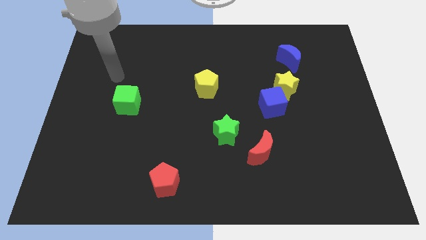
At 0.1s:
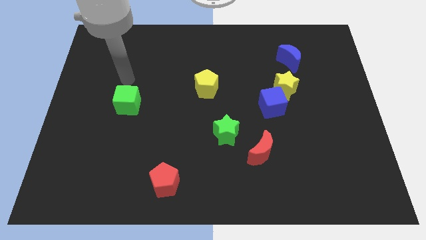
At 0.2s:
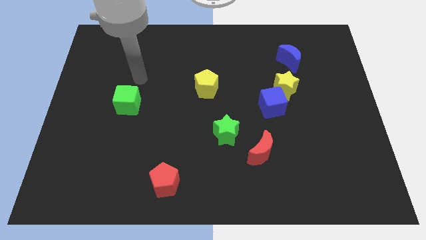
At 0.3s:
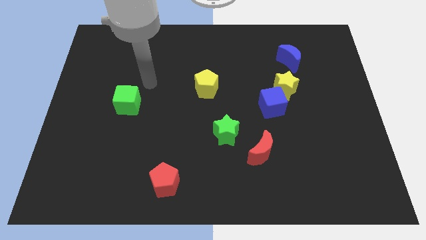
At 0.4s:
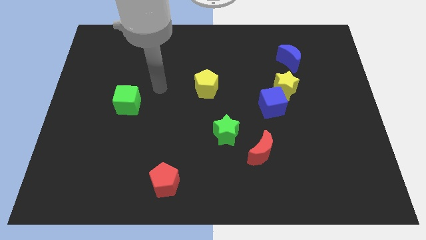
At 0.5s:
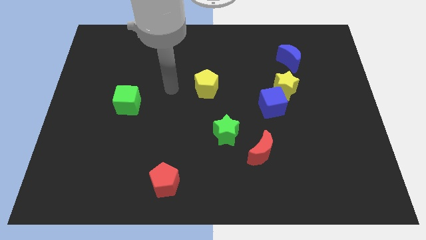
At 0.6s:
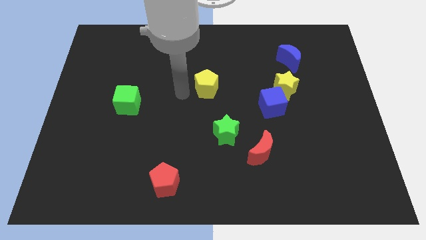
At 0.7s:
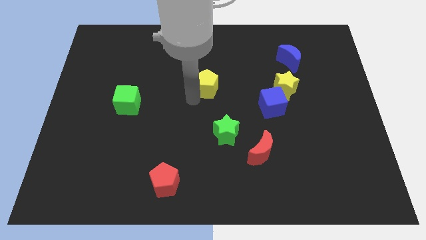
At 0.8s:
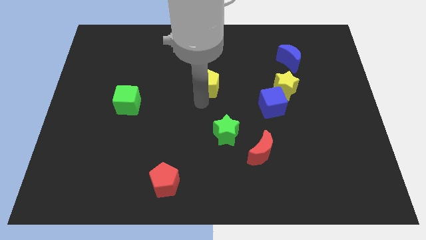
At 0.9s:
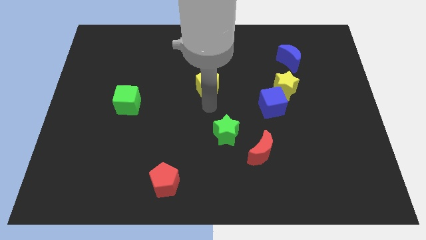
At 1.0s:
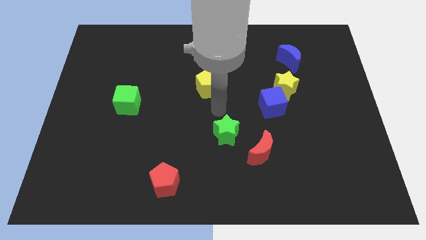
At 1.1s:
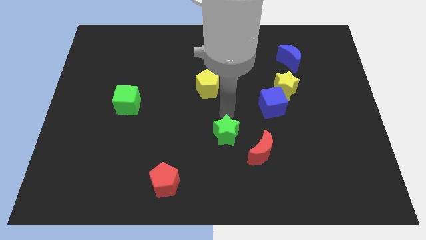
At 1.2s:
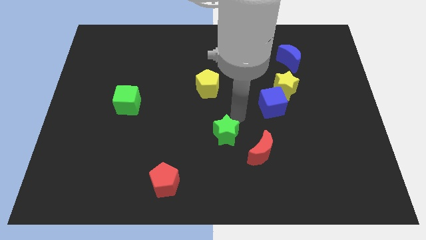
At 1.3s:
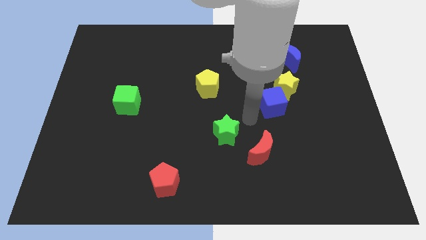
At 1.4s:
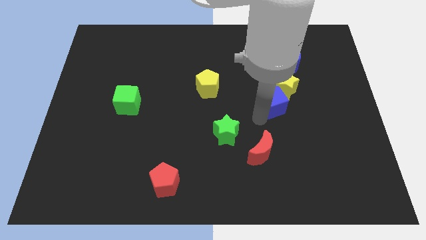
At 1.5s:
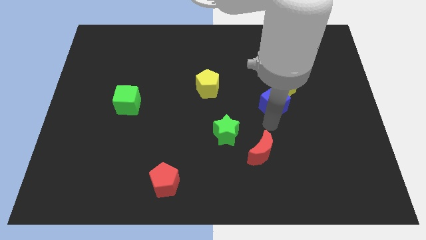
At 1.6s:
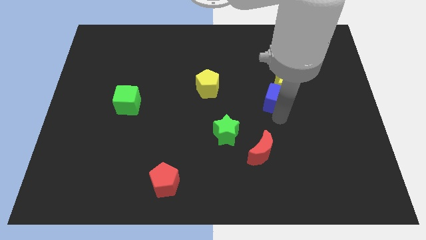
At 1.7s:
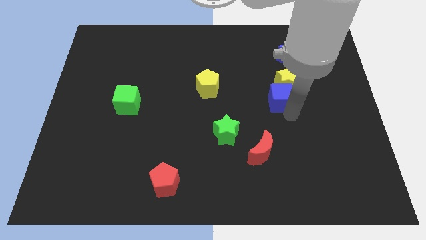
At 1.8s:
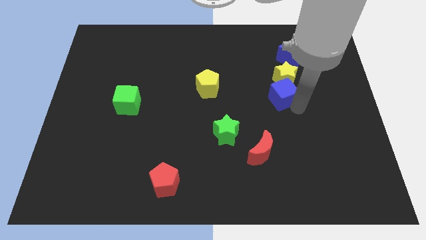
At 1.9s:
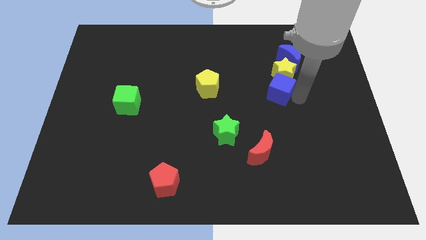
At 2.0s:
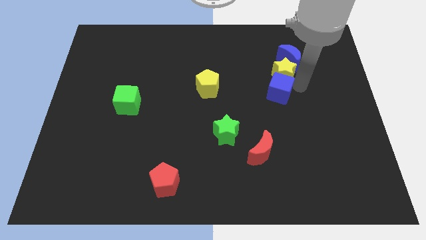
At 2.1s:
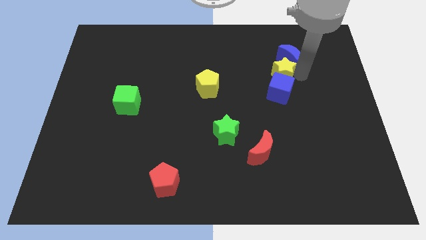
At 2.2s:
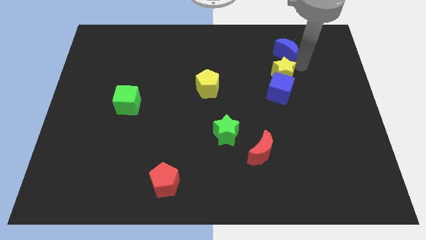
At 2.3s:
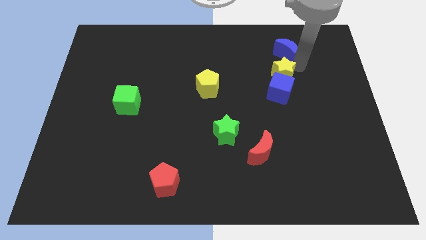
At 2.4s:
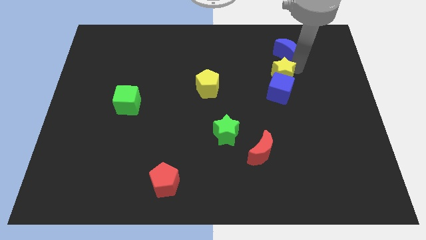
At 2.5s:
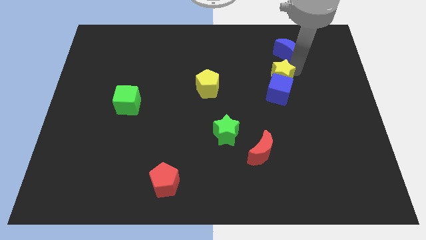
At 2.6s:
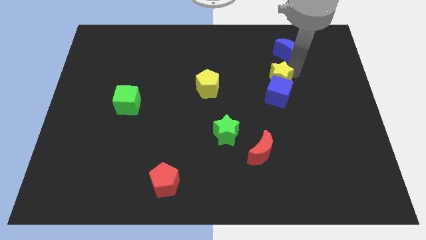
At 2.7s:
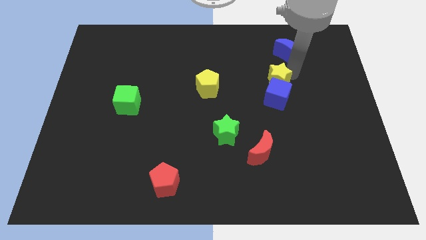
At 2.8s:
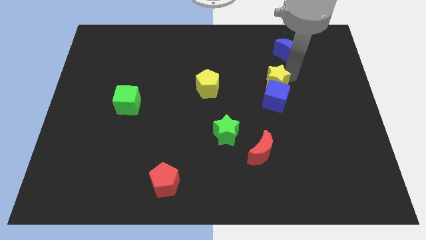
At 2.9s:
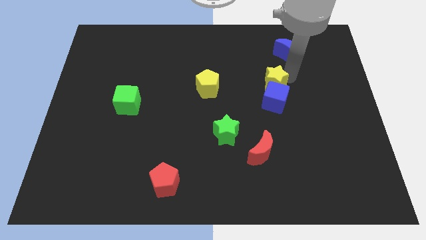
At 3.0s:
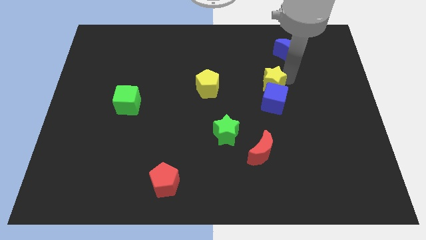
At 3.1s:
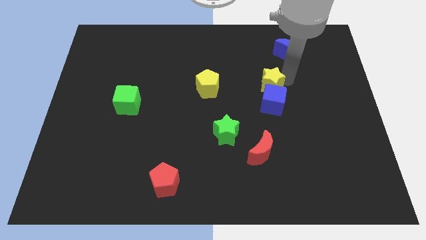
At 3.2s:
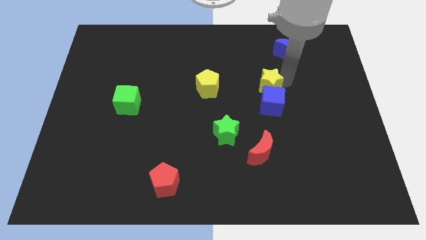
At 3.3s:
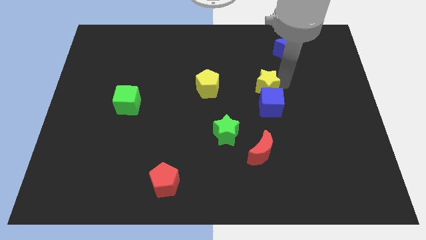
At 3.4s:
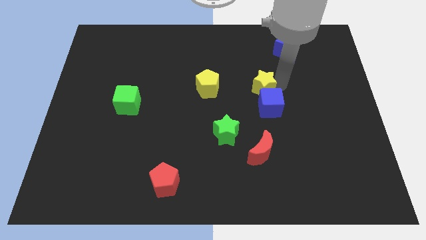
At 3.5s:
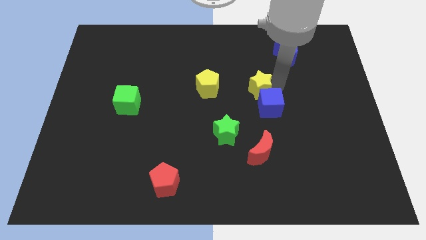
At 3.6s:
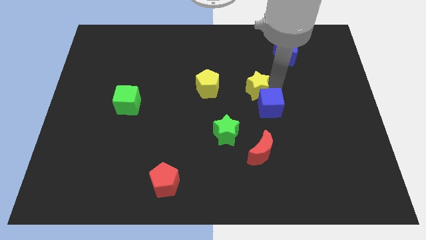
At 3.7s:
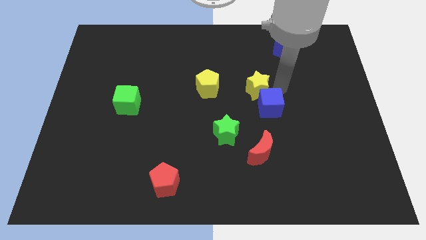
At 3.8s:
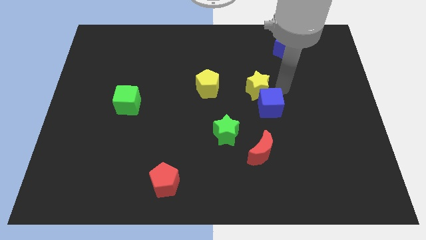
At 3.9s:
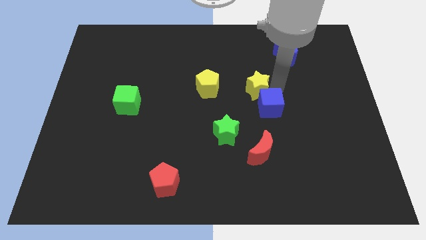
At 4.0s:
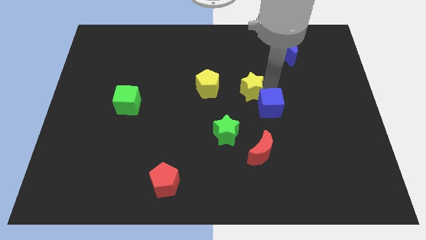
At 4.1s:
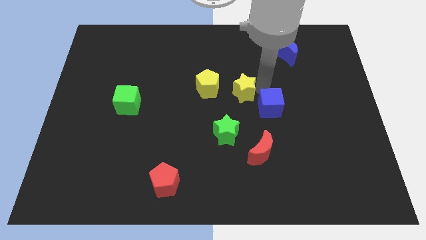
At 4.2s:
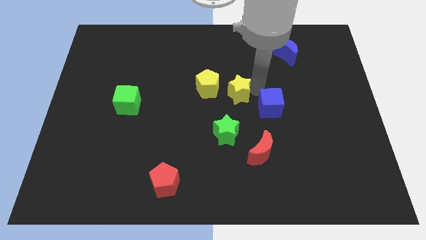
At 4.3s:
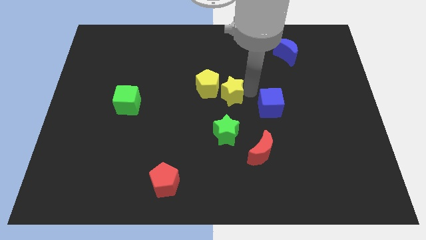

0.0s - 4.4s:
slide the yellow star close to the yellow pentagon

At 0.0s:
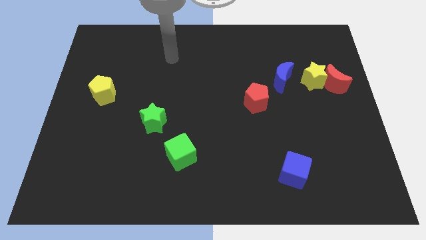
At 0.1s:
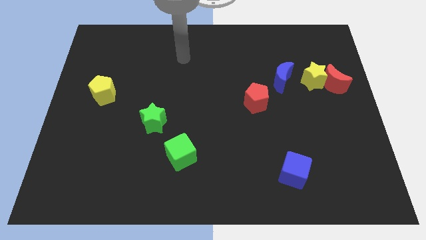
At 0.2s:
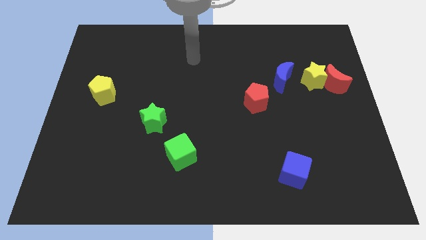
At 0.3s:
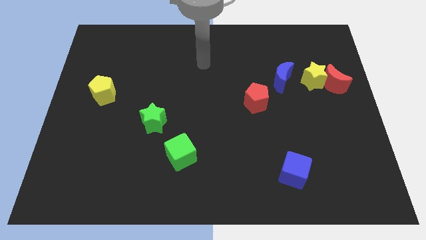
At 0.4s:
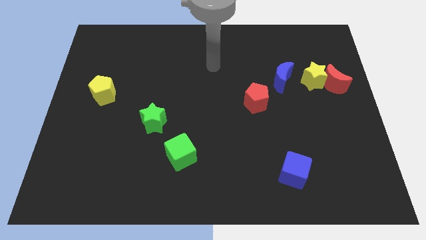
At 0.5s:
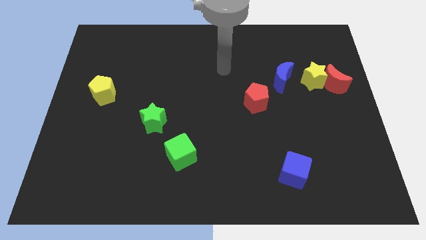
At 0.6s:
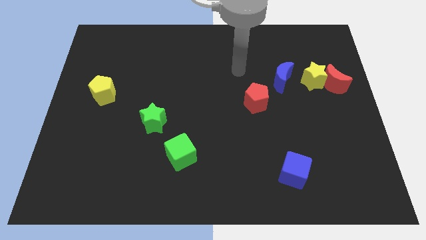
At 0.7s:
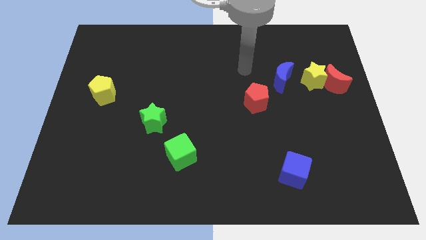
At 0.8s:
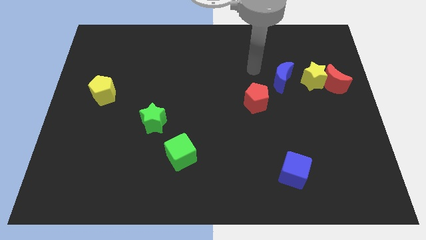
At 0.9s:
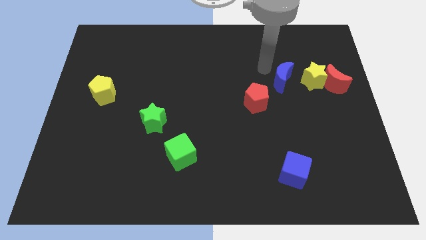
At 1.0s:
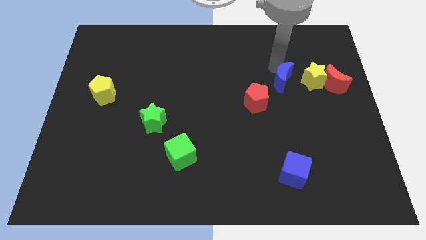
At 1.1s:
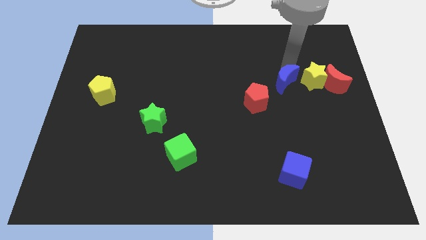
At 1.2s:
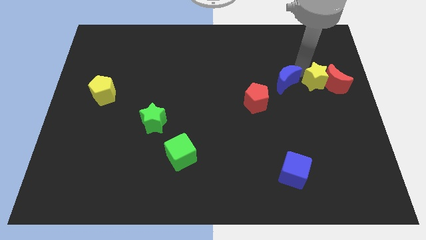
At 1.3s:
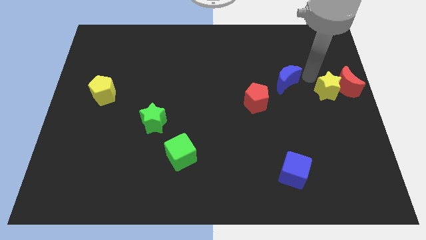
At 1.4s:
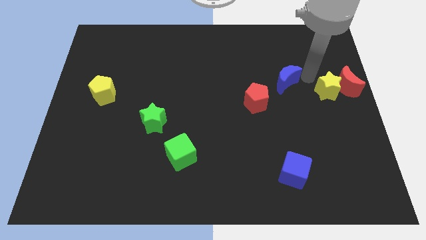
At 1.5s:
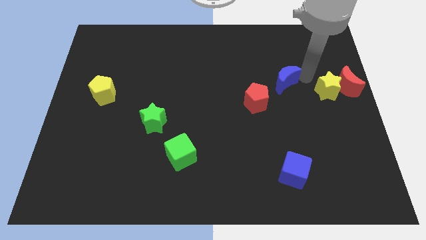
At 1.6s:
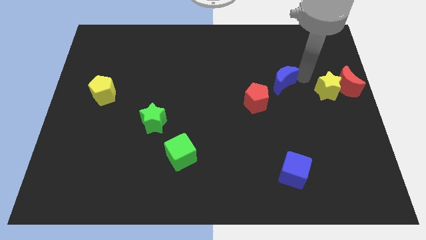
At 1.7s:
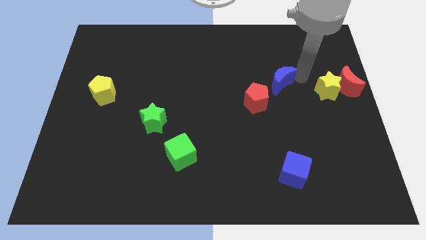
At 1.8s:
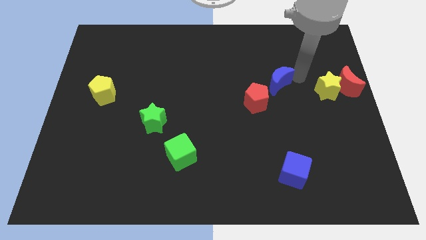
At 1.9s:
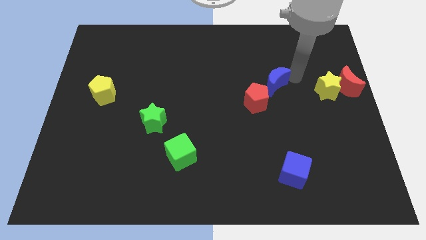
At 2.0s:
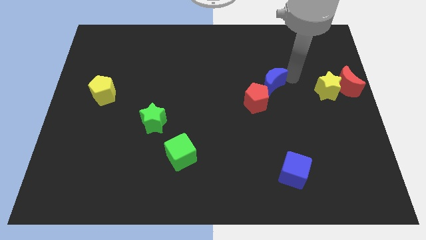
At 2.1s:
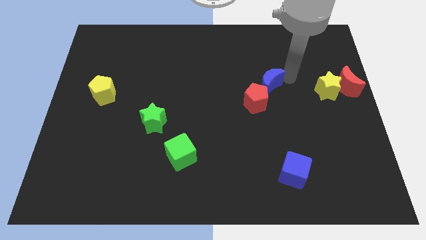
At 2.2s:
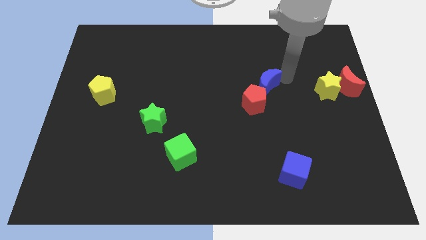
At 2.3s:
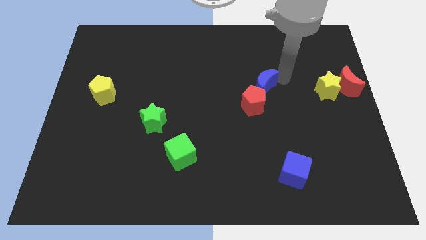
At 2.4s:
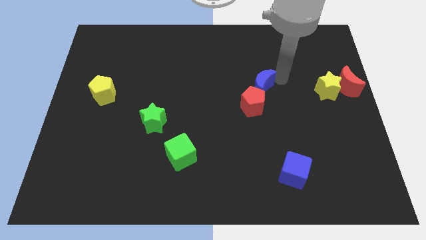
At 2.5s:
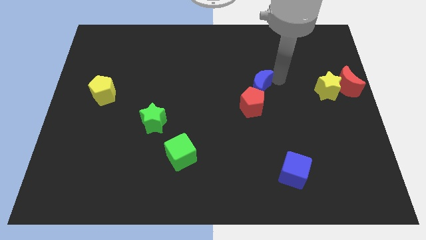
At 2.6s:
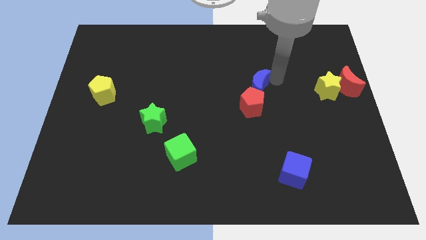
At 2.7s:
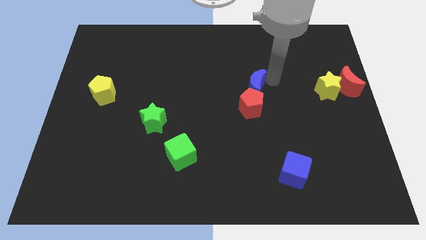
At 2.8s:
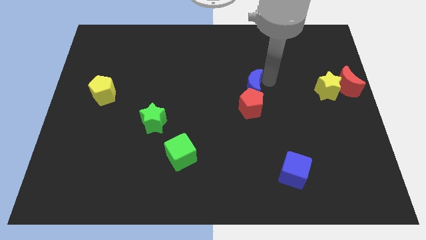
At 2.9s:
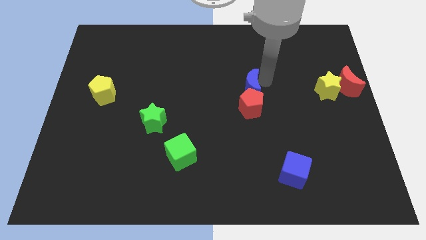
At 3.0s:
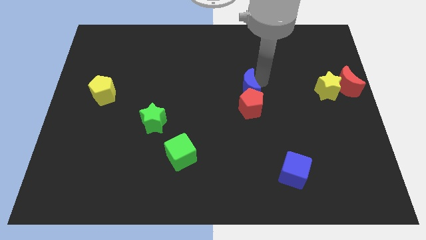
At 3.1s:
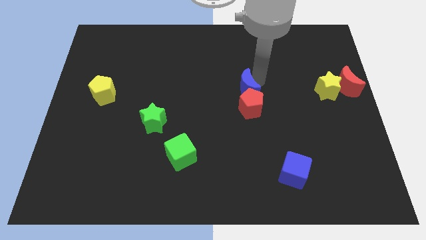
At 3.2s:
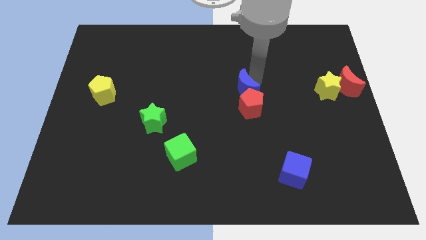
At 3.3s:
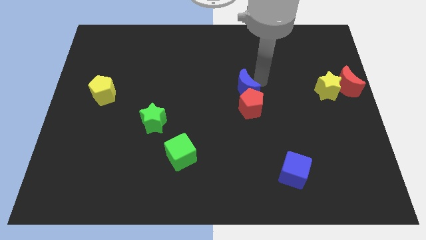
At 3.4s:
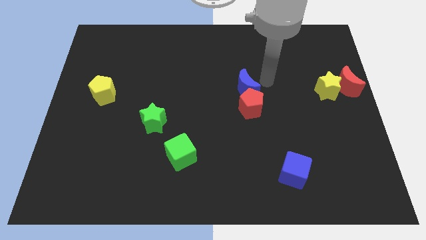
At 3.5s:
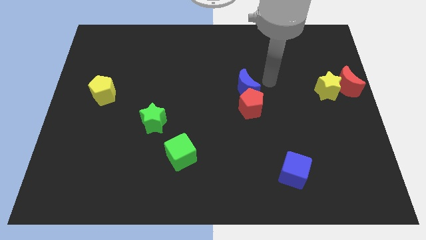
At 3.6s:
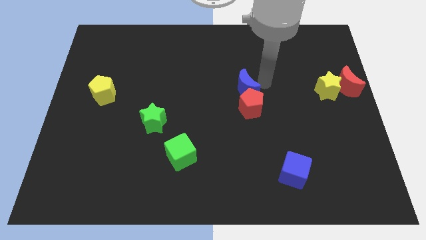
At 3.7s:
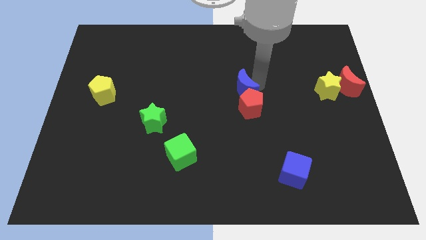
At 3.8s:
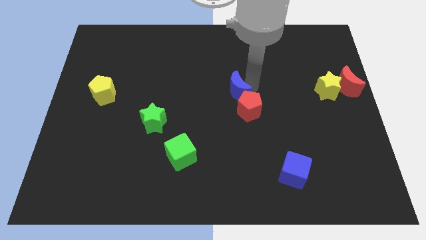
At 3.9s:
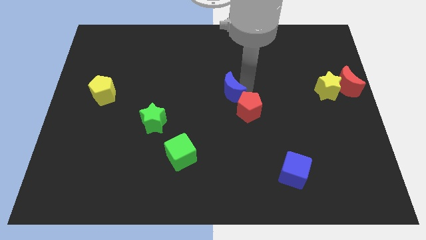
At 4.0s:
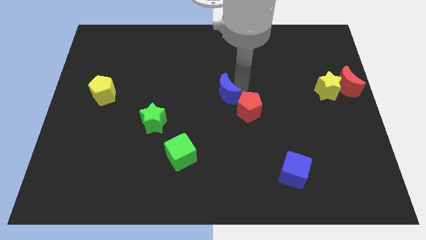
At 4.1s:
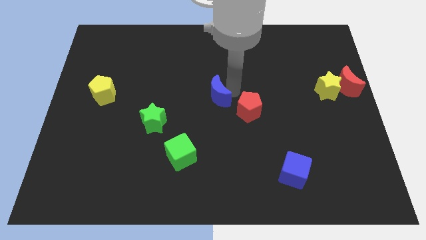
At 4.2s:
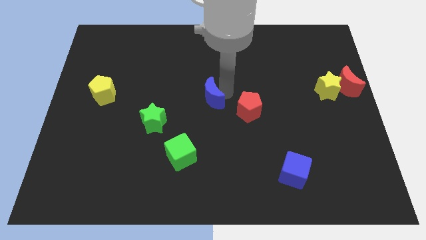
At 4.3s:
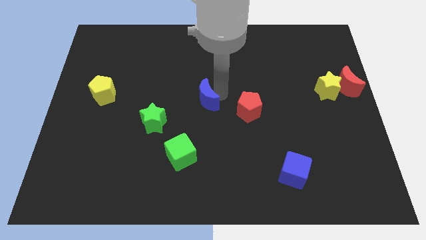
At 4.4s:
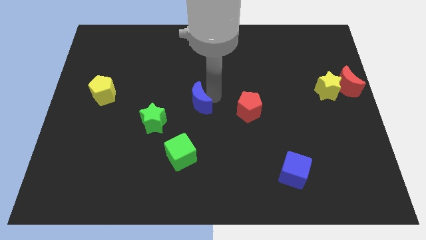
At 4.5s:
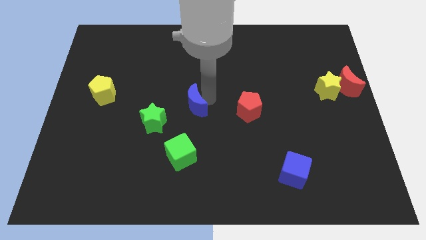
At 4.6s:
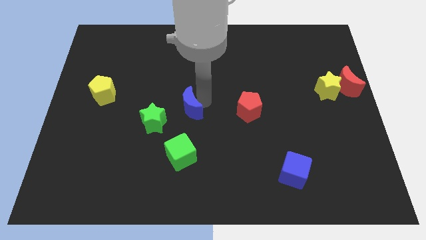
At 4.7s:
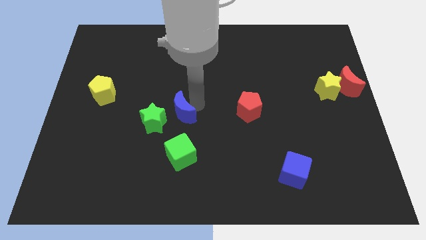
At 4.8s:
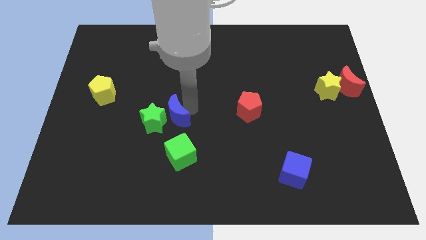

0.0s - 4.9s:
move the blue moon close to the green star
